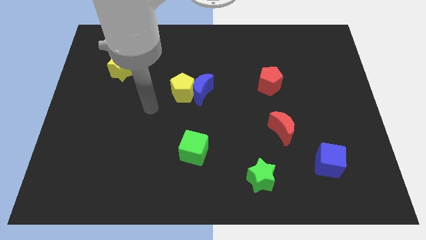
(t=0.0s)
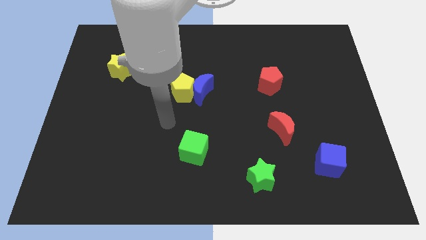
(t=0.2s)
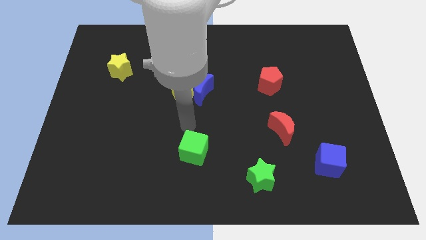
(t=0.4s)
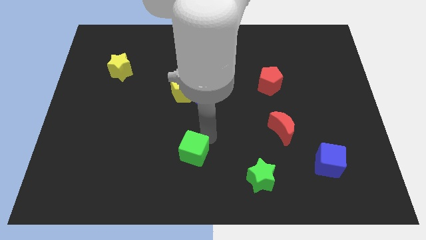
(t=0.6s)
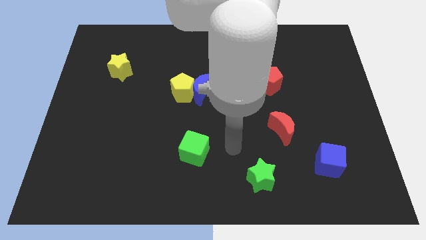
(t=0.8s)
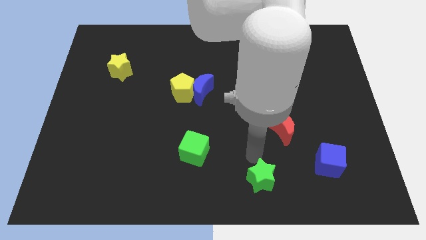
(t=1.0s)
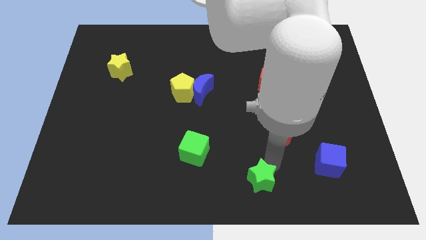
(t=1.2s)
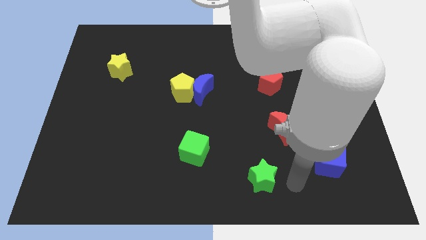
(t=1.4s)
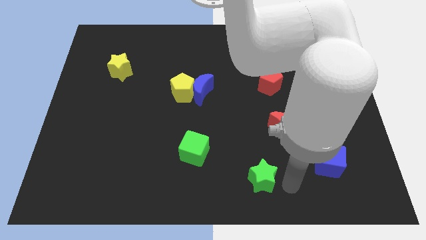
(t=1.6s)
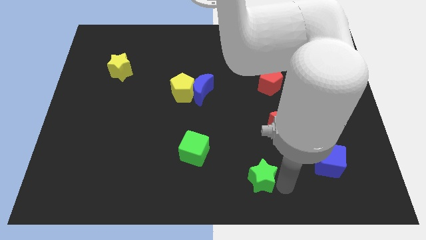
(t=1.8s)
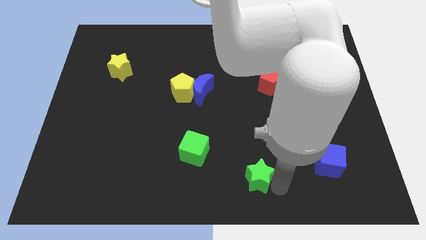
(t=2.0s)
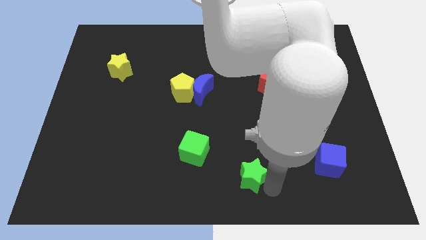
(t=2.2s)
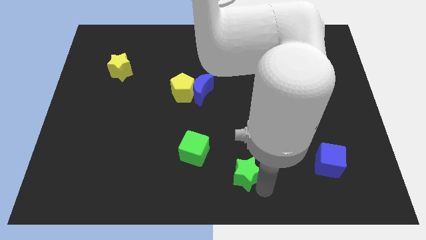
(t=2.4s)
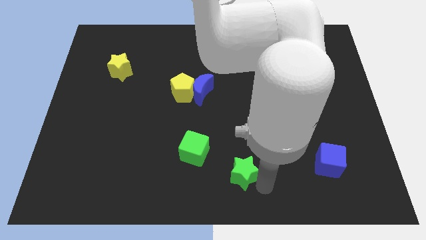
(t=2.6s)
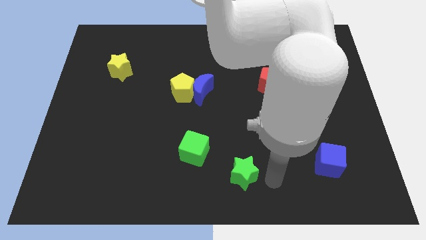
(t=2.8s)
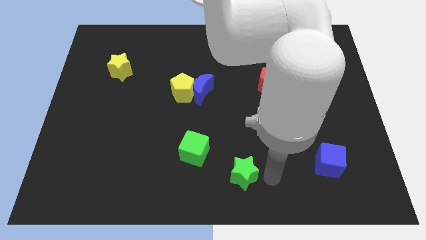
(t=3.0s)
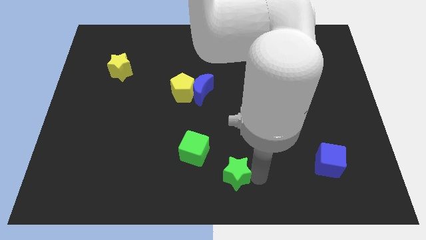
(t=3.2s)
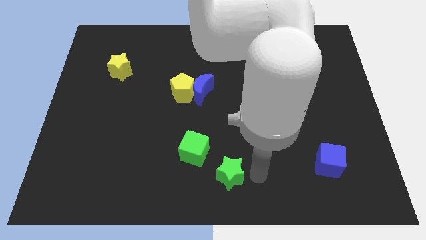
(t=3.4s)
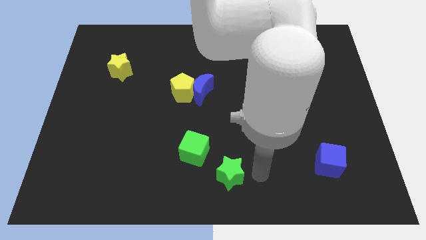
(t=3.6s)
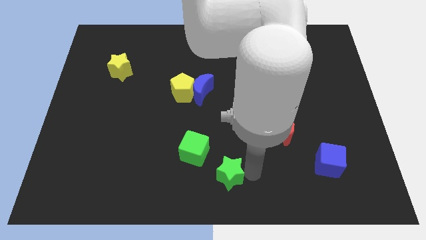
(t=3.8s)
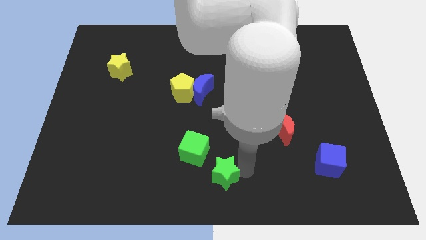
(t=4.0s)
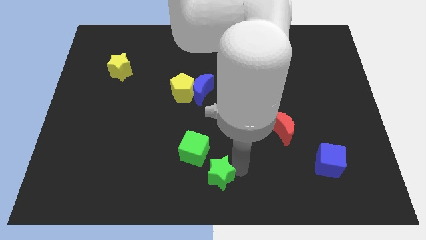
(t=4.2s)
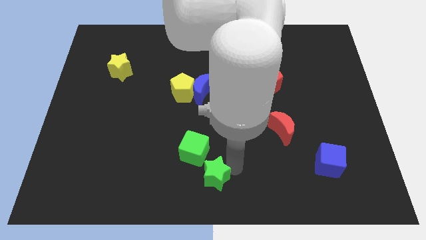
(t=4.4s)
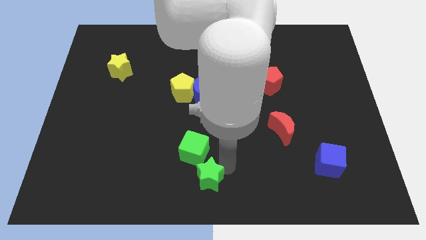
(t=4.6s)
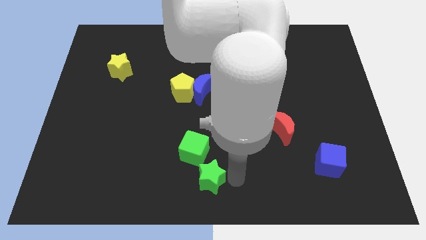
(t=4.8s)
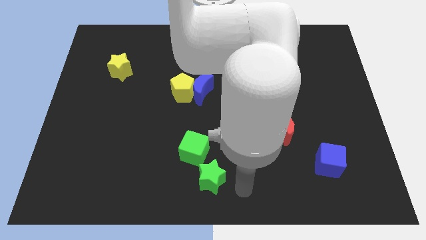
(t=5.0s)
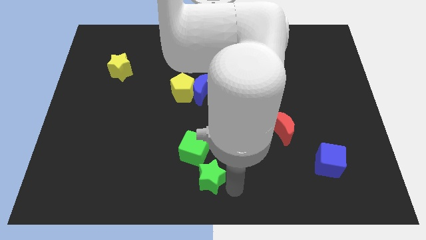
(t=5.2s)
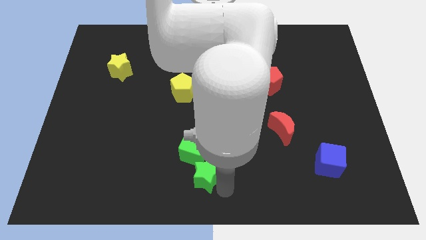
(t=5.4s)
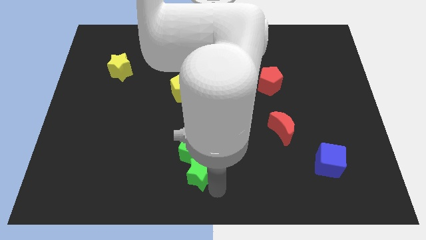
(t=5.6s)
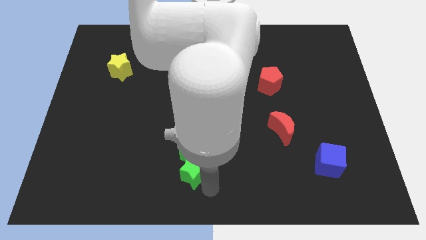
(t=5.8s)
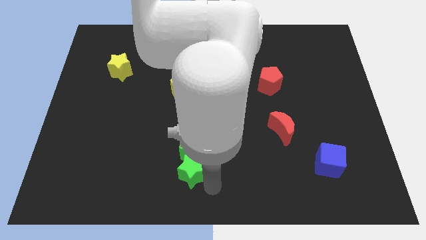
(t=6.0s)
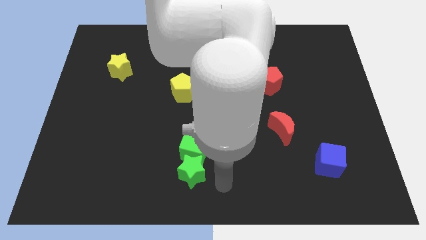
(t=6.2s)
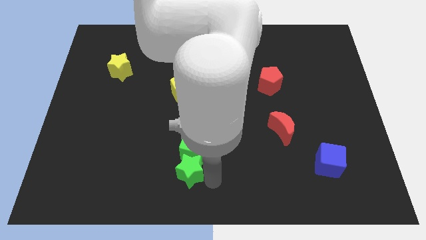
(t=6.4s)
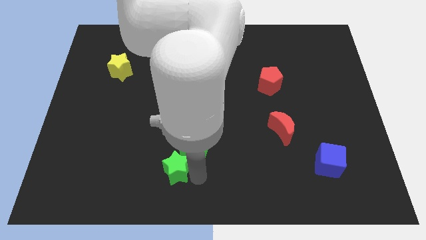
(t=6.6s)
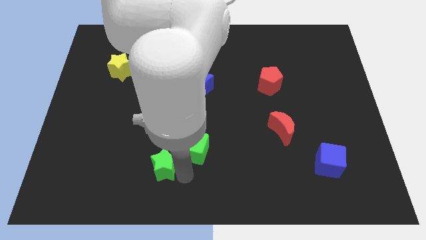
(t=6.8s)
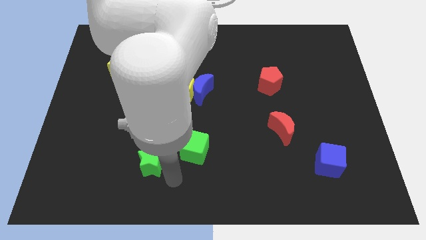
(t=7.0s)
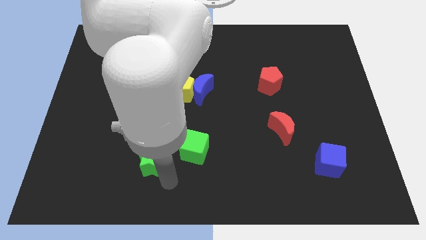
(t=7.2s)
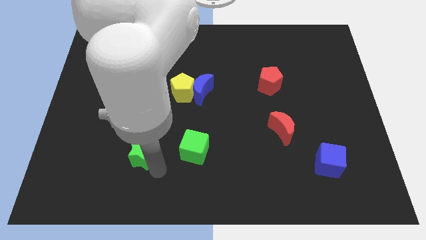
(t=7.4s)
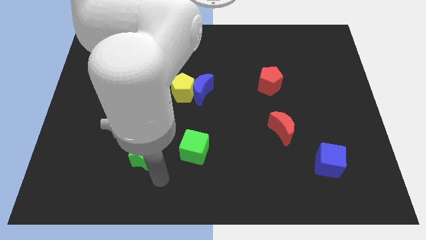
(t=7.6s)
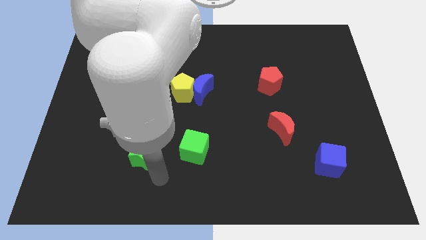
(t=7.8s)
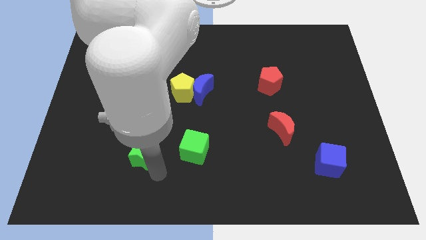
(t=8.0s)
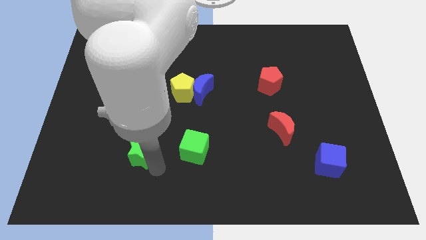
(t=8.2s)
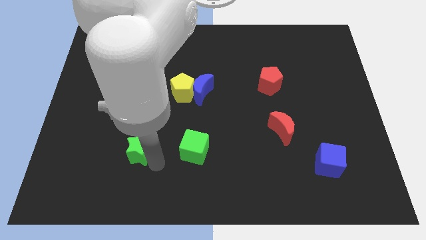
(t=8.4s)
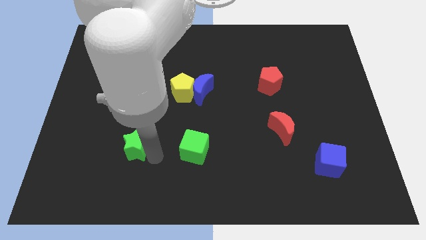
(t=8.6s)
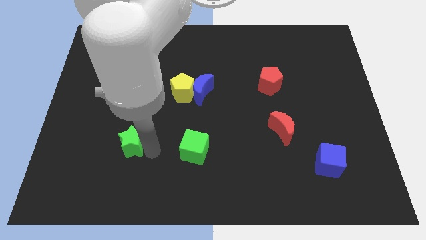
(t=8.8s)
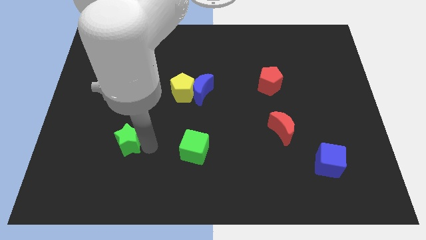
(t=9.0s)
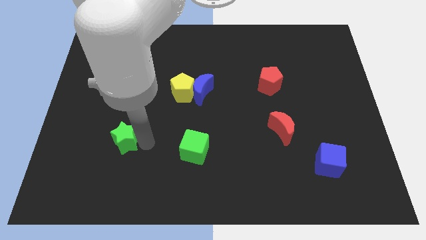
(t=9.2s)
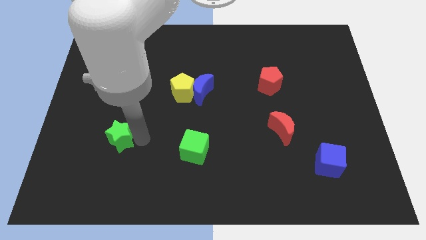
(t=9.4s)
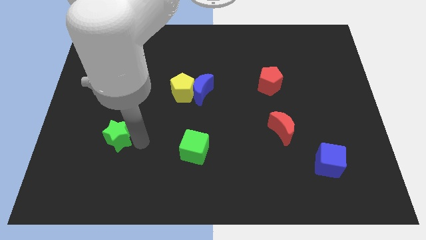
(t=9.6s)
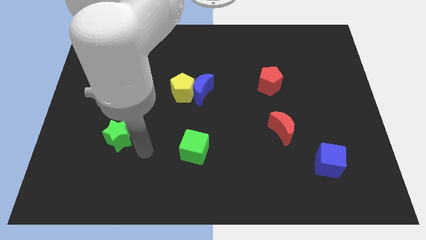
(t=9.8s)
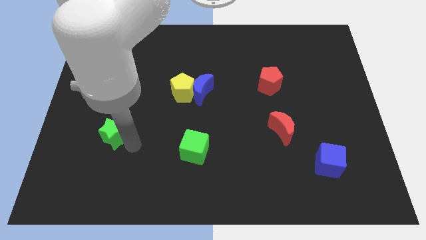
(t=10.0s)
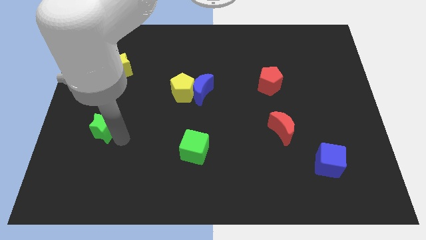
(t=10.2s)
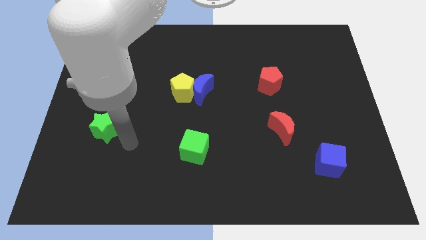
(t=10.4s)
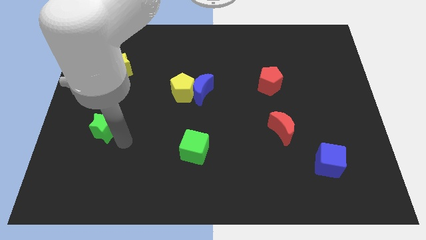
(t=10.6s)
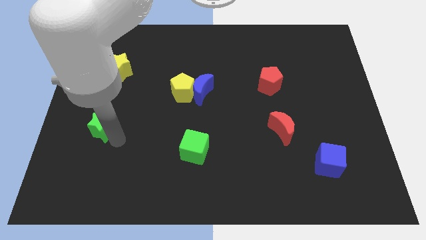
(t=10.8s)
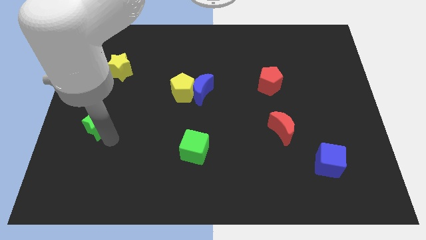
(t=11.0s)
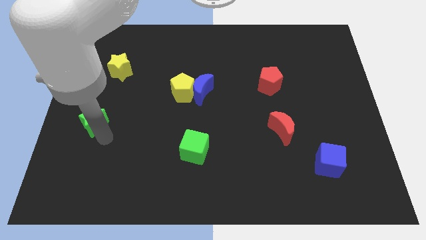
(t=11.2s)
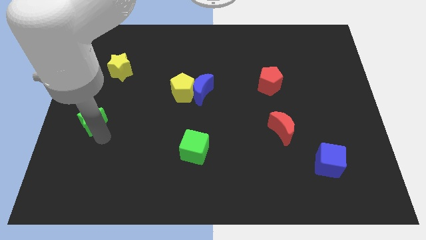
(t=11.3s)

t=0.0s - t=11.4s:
move the green star to the left side

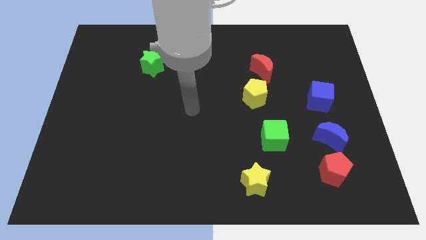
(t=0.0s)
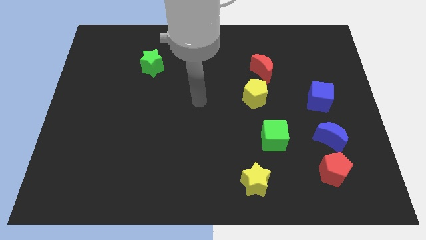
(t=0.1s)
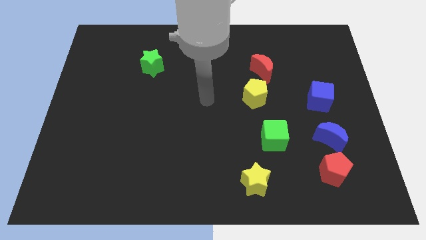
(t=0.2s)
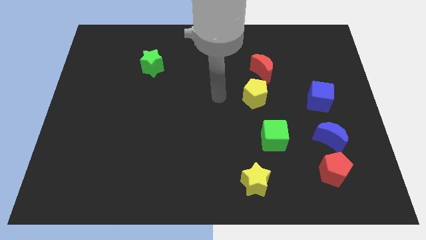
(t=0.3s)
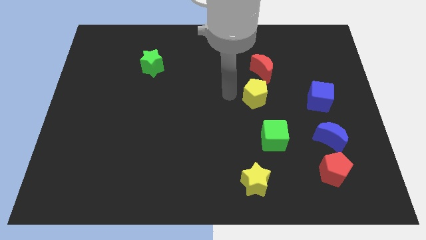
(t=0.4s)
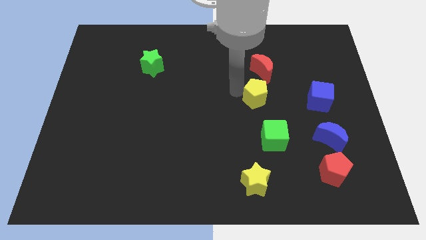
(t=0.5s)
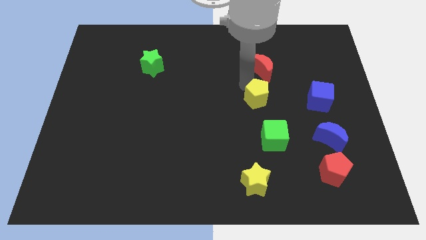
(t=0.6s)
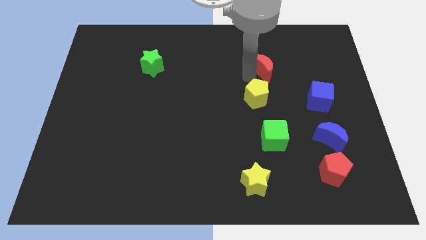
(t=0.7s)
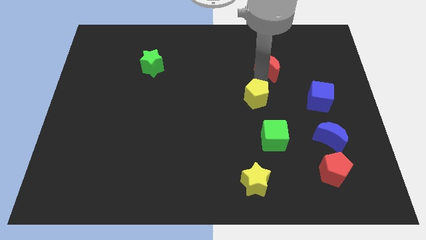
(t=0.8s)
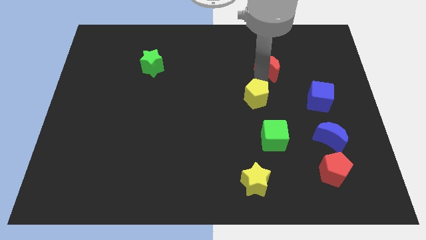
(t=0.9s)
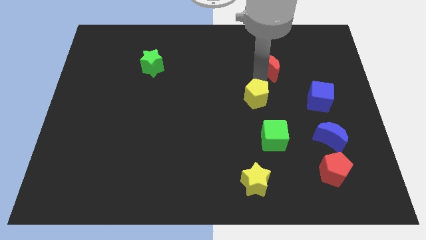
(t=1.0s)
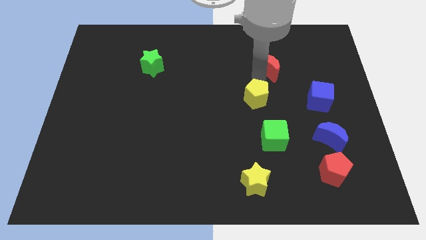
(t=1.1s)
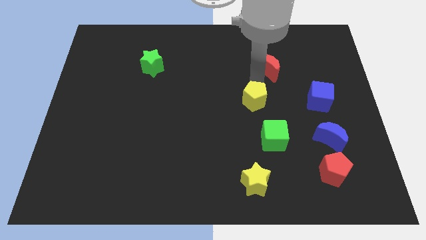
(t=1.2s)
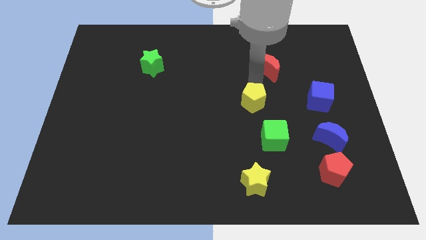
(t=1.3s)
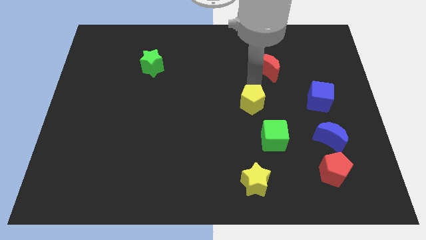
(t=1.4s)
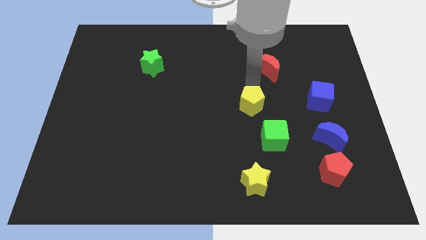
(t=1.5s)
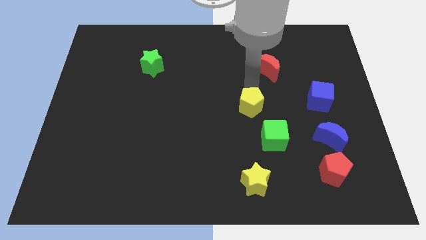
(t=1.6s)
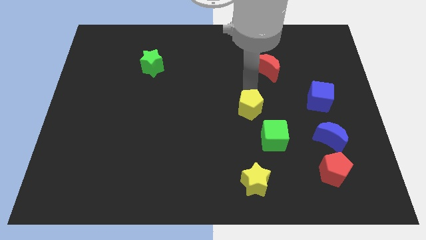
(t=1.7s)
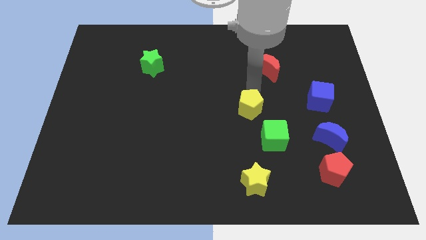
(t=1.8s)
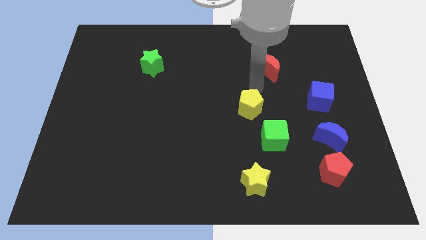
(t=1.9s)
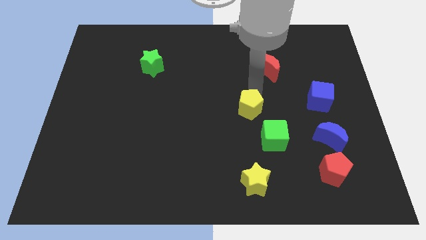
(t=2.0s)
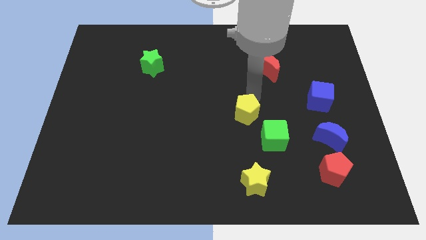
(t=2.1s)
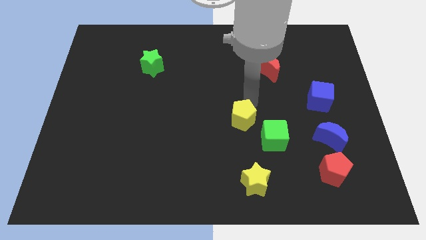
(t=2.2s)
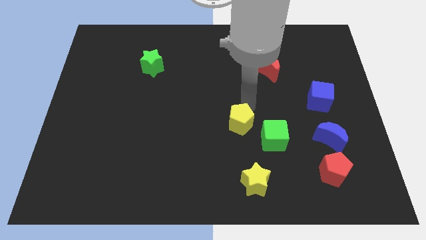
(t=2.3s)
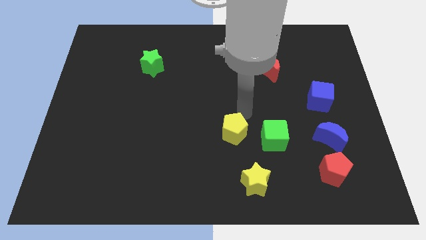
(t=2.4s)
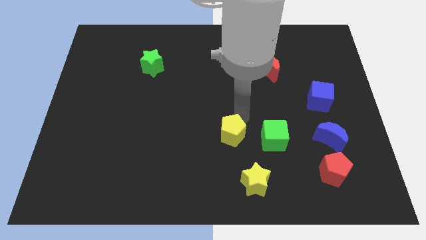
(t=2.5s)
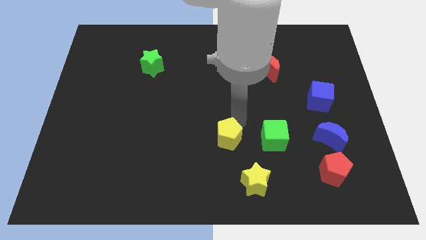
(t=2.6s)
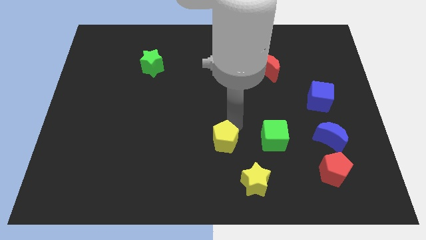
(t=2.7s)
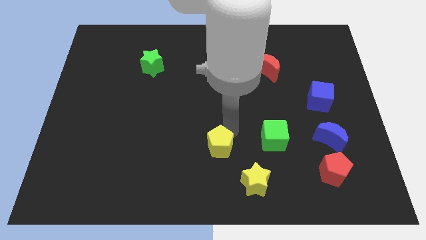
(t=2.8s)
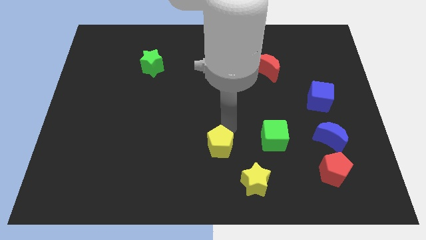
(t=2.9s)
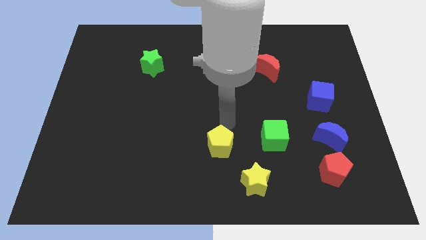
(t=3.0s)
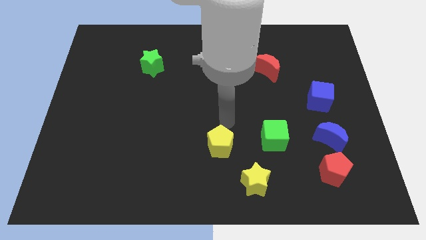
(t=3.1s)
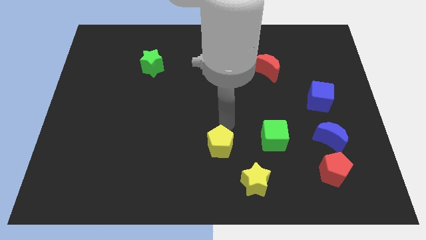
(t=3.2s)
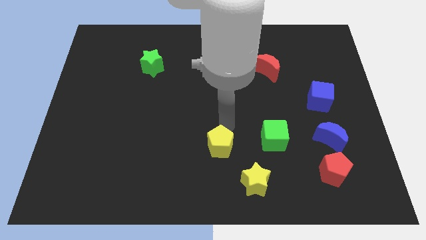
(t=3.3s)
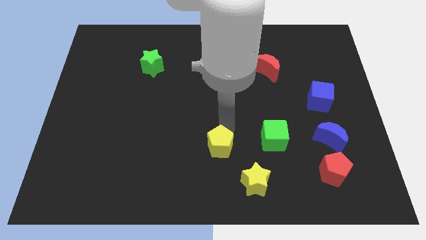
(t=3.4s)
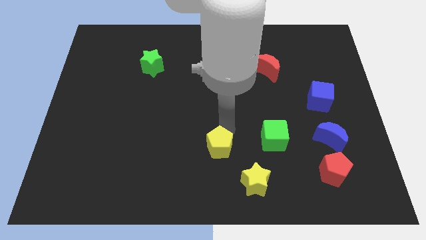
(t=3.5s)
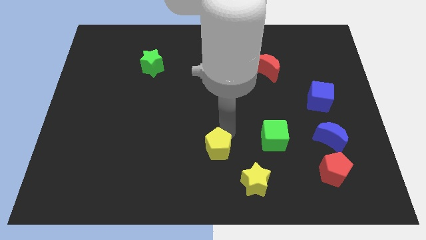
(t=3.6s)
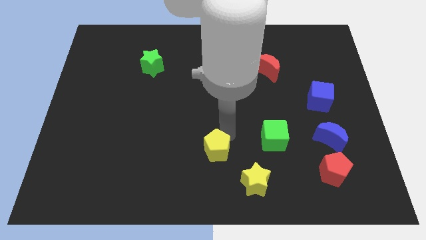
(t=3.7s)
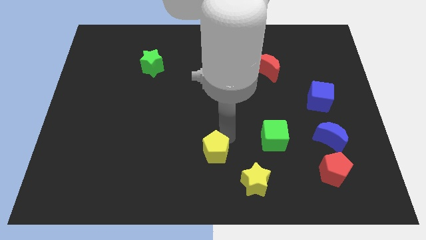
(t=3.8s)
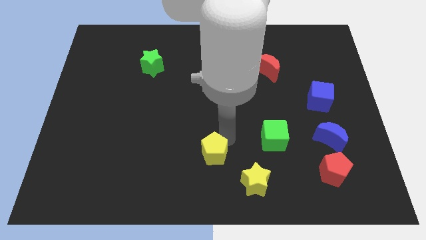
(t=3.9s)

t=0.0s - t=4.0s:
put the yellow pentagon to the bottom
